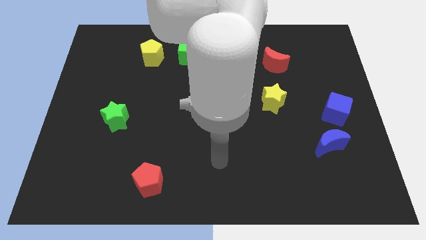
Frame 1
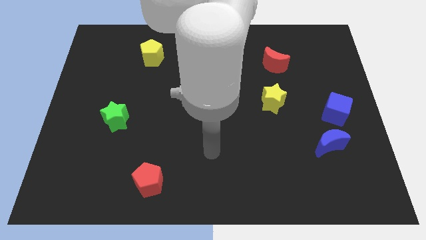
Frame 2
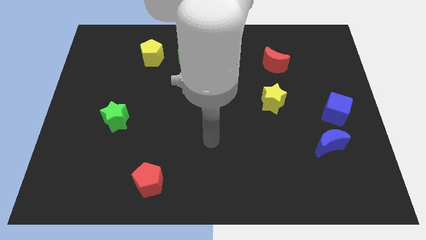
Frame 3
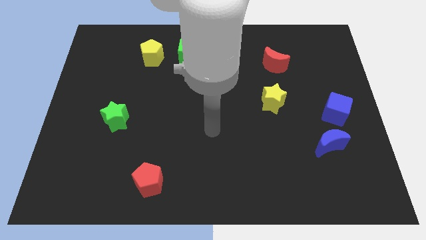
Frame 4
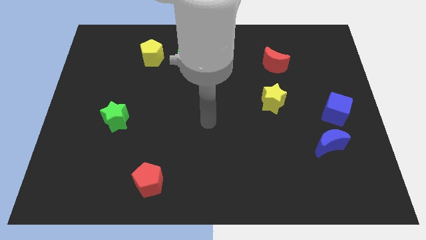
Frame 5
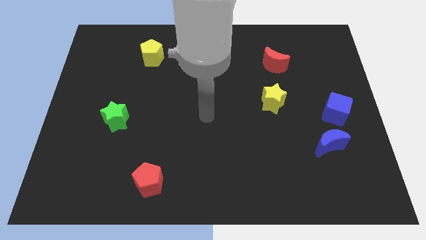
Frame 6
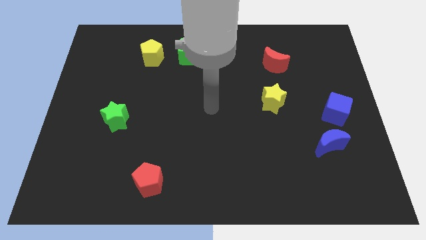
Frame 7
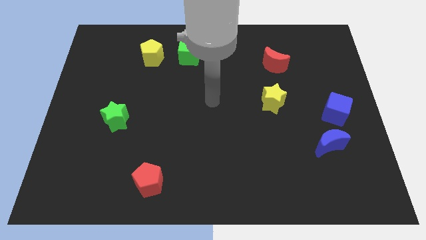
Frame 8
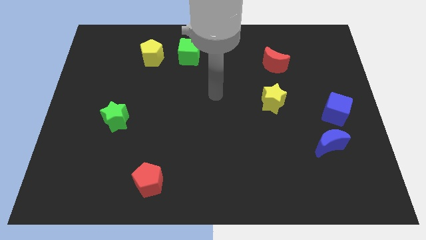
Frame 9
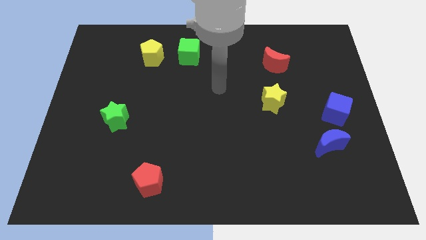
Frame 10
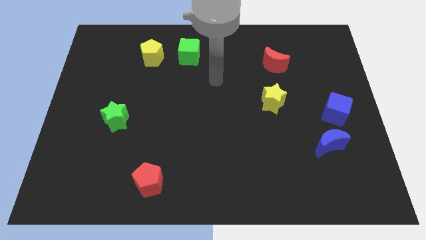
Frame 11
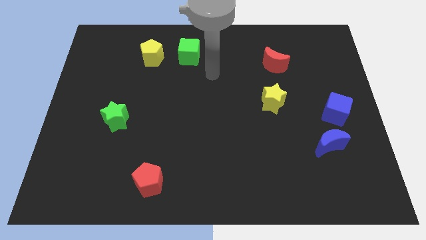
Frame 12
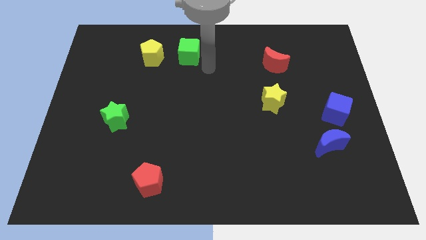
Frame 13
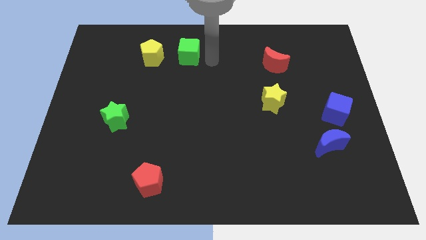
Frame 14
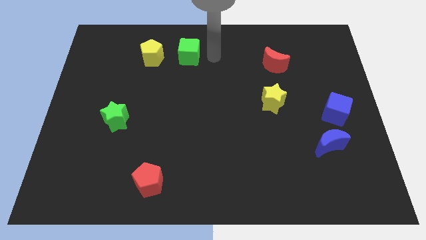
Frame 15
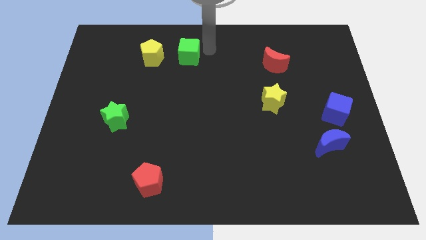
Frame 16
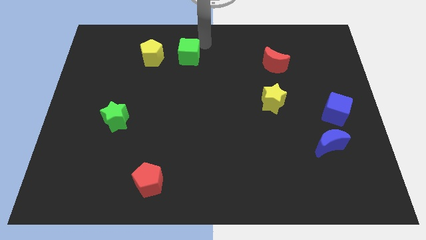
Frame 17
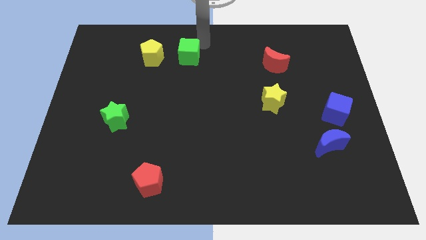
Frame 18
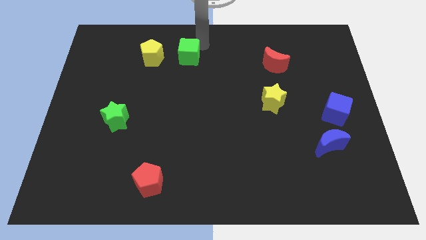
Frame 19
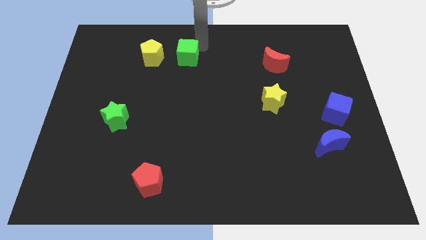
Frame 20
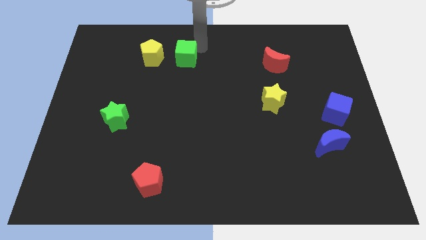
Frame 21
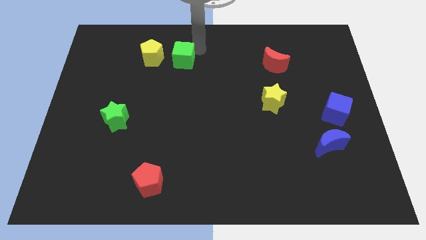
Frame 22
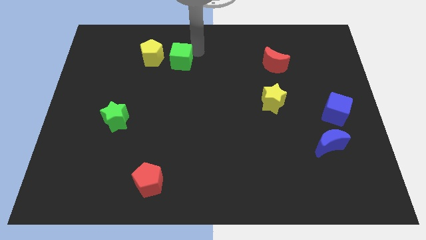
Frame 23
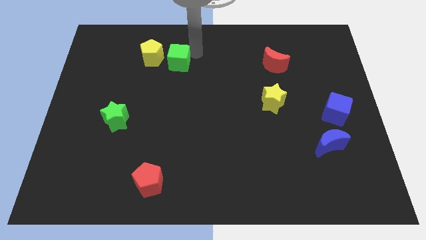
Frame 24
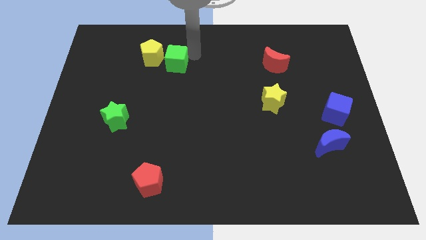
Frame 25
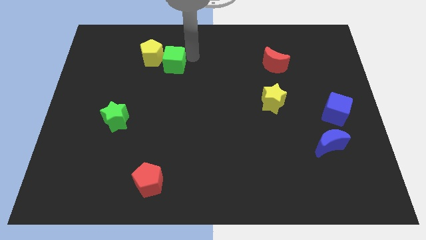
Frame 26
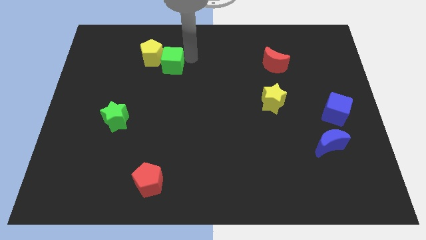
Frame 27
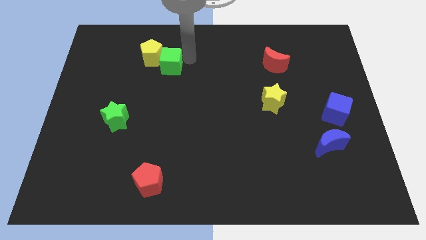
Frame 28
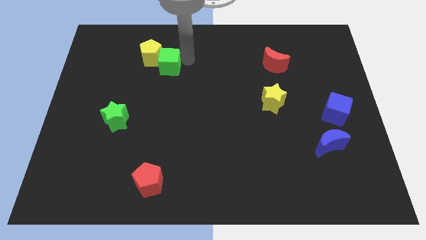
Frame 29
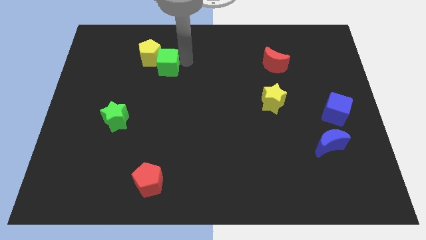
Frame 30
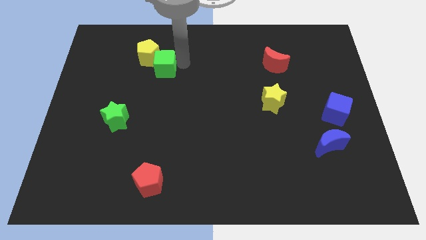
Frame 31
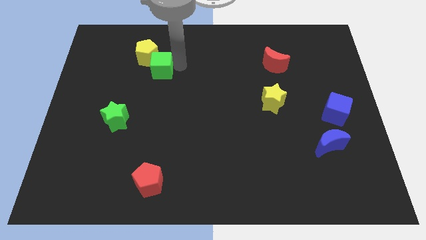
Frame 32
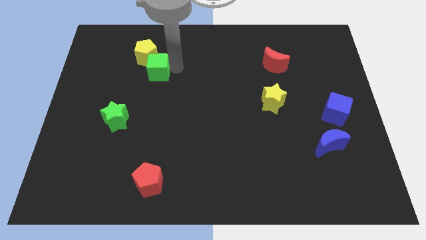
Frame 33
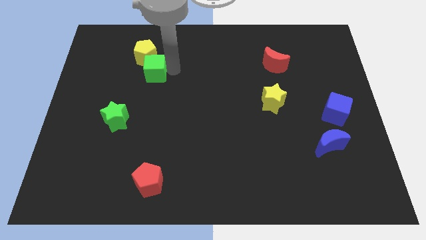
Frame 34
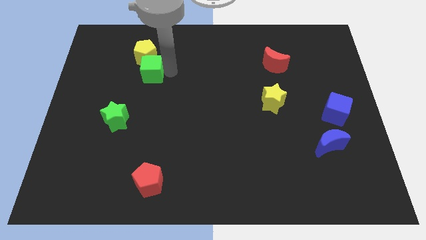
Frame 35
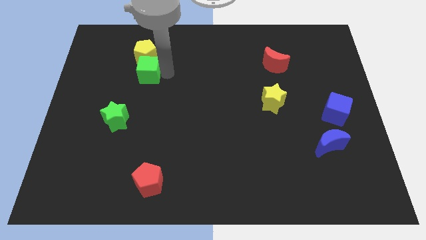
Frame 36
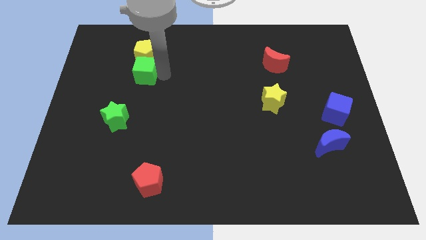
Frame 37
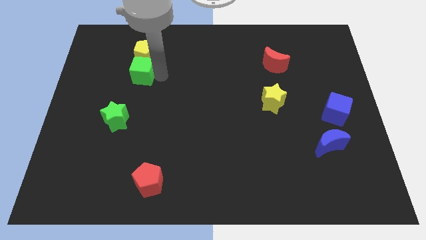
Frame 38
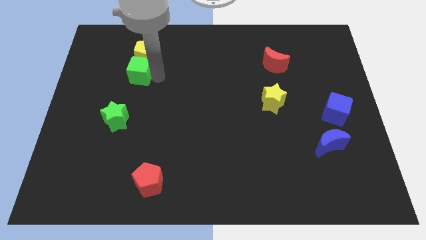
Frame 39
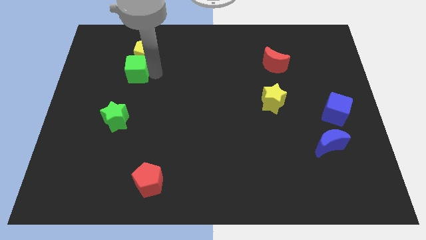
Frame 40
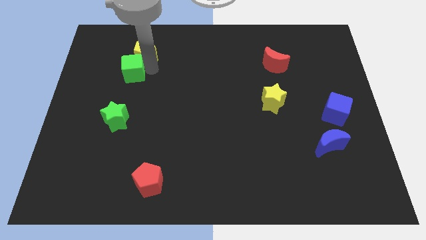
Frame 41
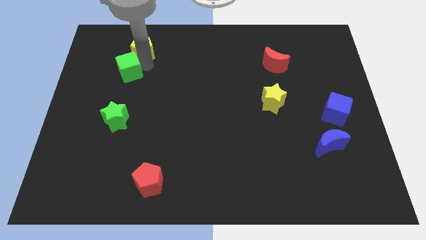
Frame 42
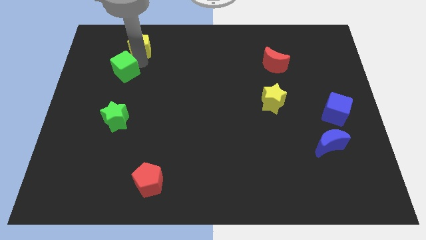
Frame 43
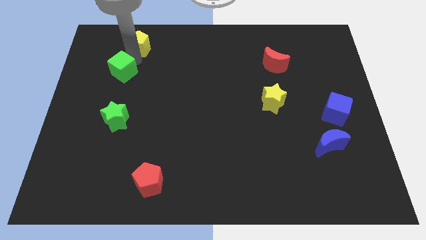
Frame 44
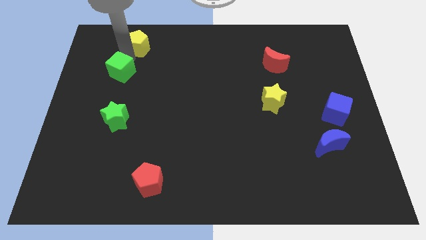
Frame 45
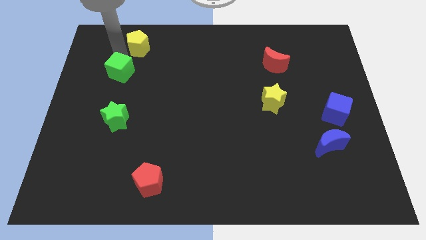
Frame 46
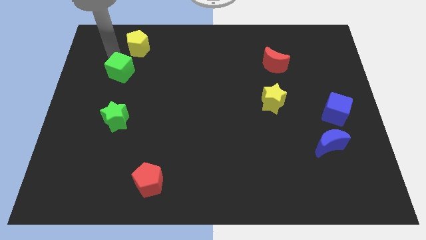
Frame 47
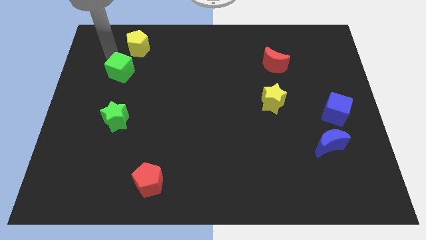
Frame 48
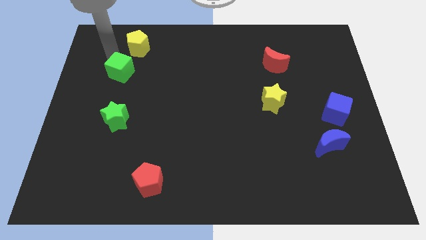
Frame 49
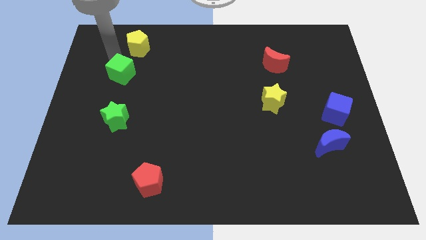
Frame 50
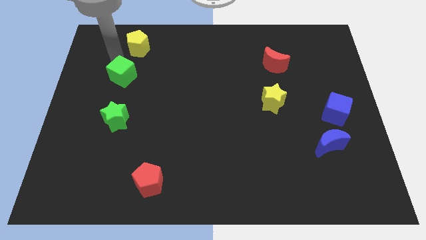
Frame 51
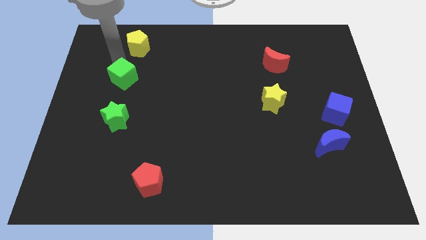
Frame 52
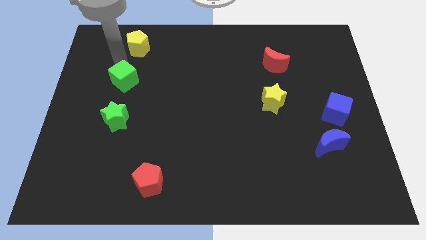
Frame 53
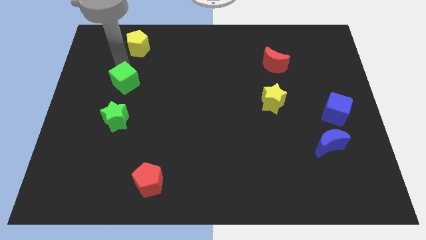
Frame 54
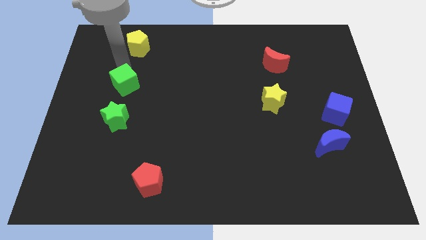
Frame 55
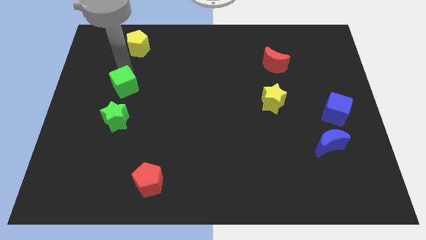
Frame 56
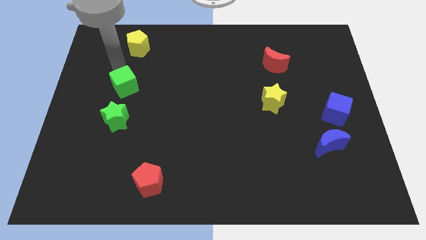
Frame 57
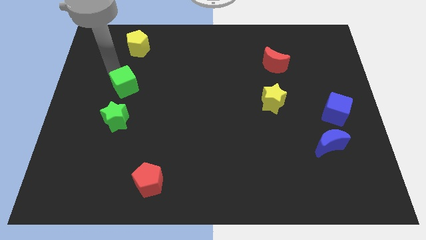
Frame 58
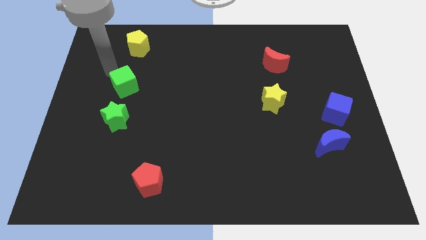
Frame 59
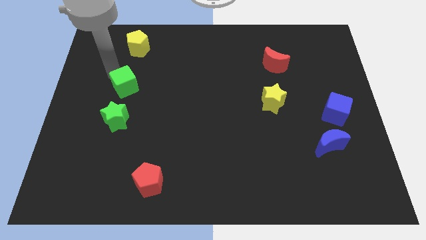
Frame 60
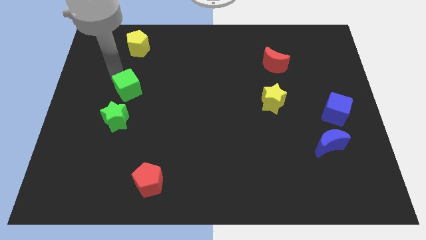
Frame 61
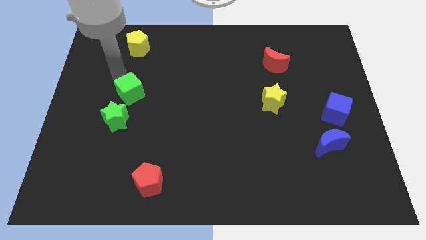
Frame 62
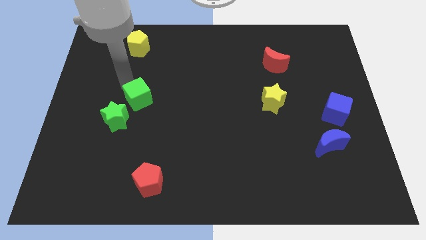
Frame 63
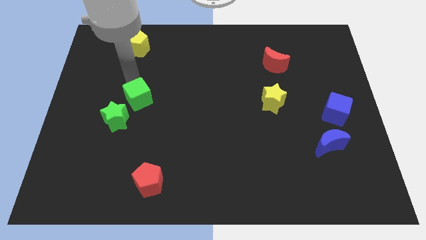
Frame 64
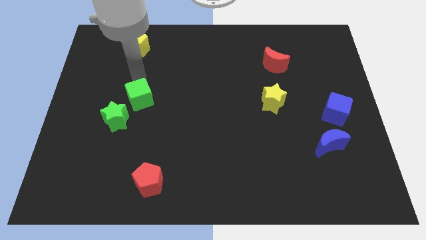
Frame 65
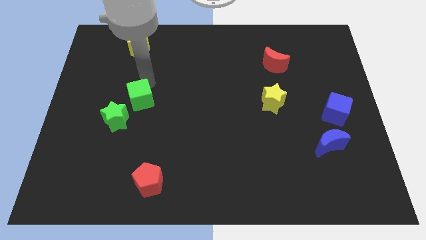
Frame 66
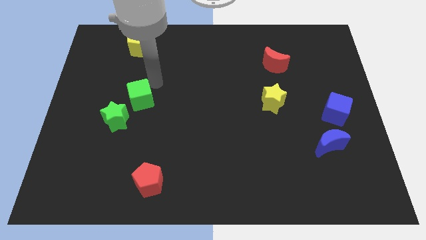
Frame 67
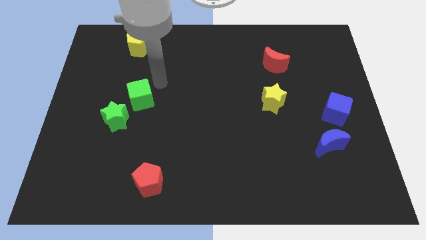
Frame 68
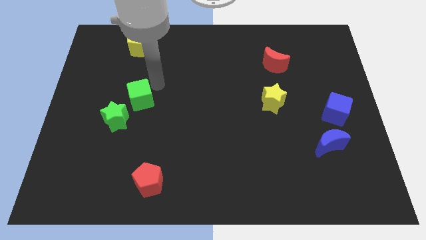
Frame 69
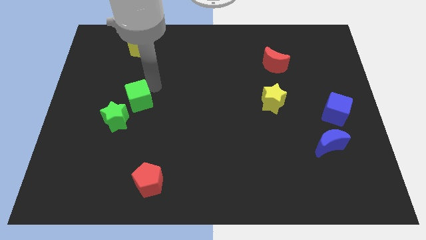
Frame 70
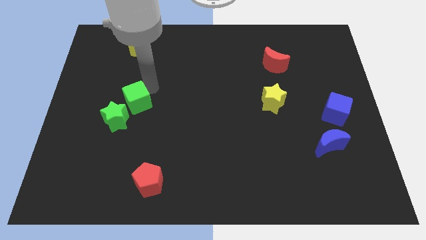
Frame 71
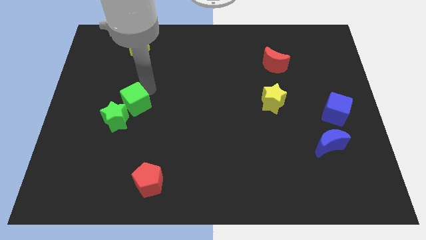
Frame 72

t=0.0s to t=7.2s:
put the green cube towards the green star
